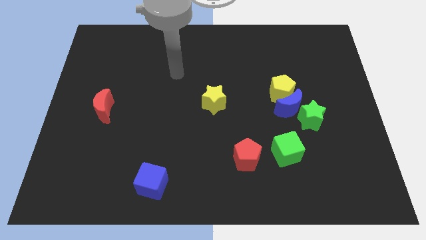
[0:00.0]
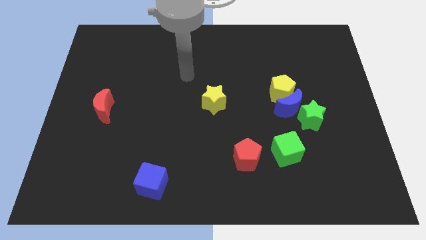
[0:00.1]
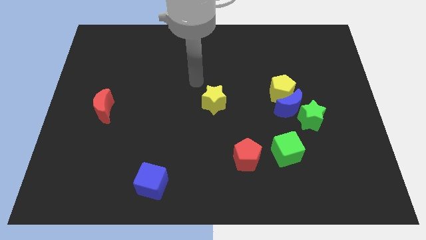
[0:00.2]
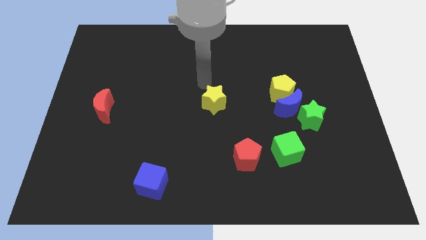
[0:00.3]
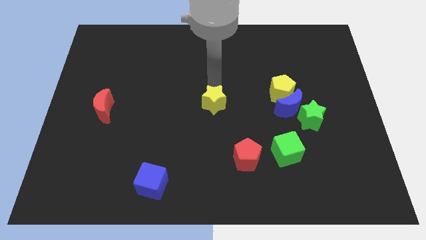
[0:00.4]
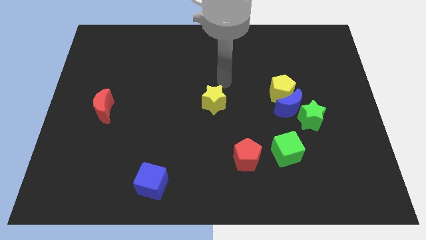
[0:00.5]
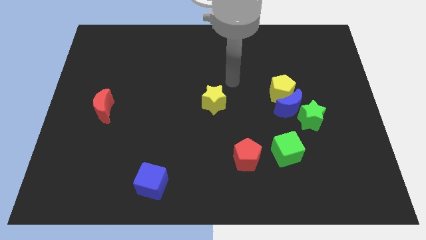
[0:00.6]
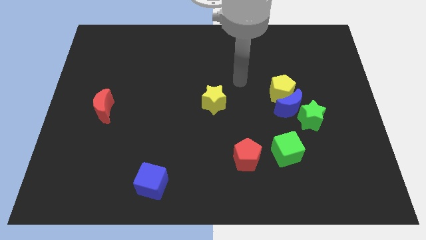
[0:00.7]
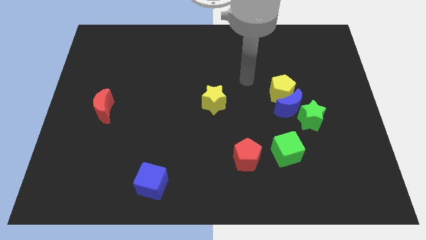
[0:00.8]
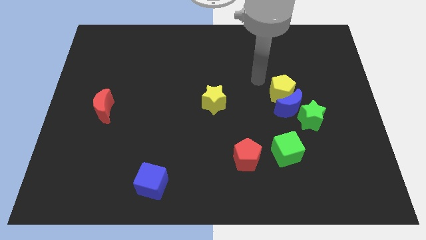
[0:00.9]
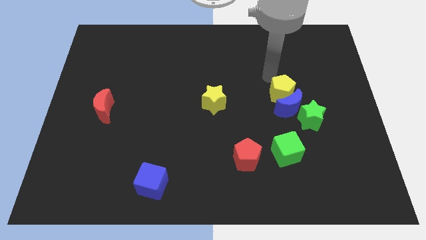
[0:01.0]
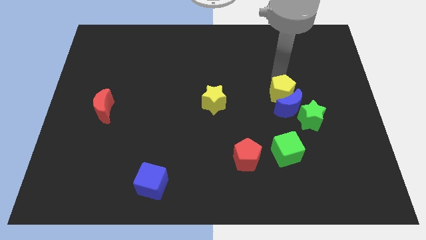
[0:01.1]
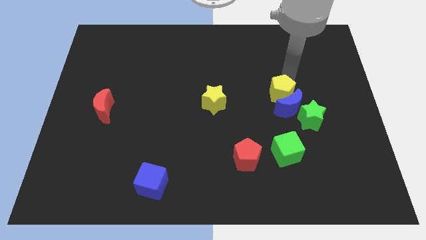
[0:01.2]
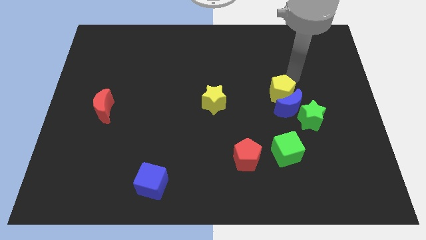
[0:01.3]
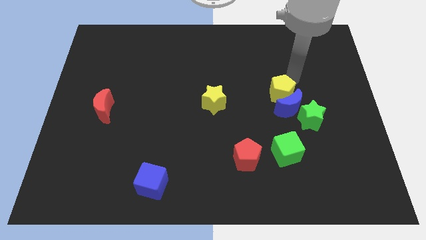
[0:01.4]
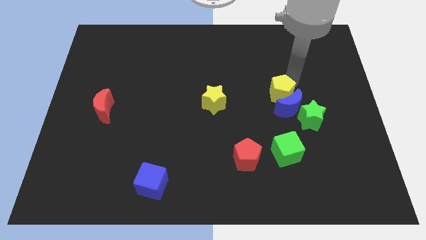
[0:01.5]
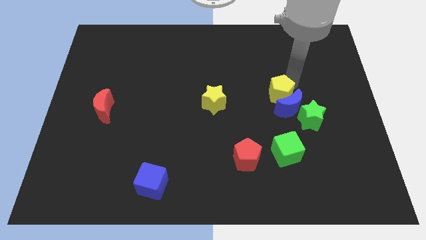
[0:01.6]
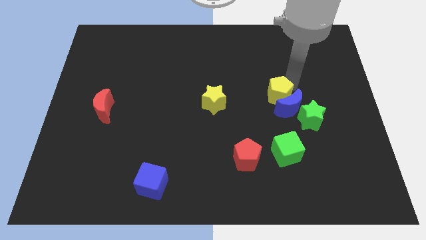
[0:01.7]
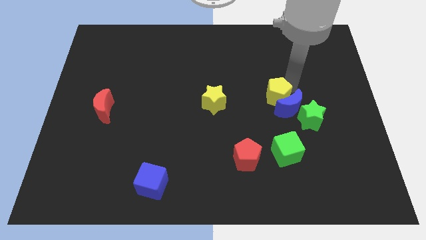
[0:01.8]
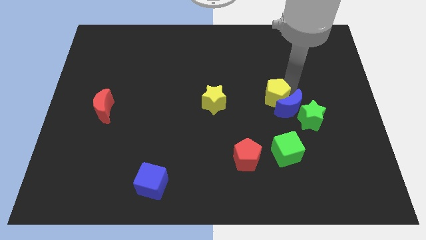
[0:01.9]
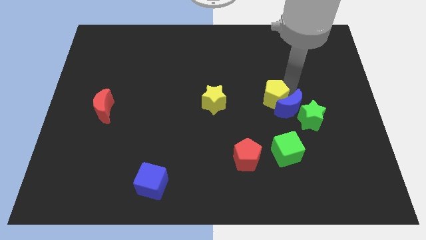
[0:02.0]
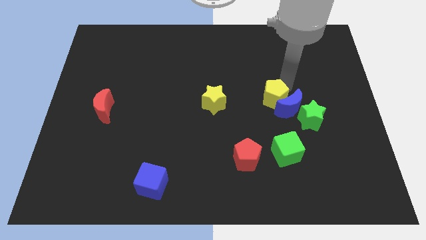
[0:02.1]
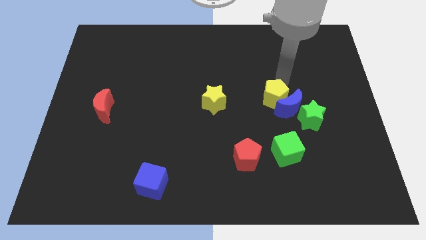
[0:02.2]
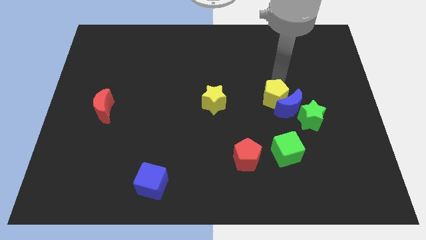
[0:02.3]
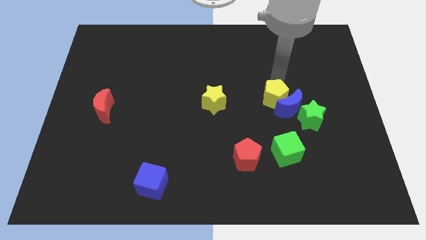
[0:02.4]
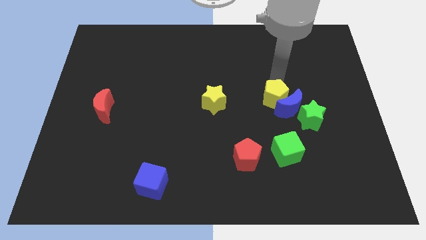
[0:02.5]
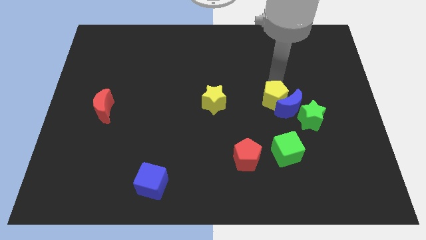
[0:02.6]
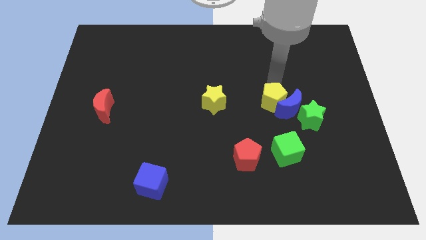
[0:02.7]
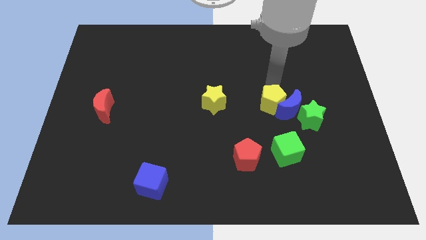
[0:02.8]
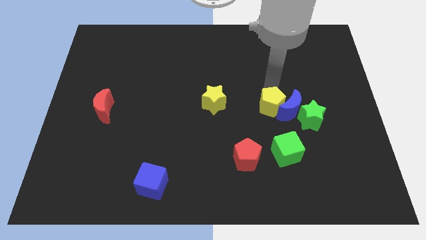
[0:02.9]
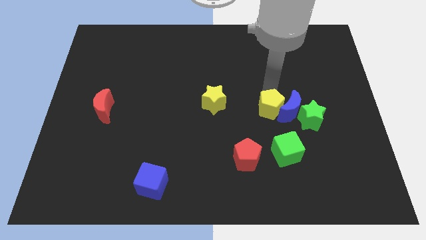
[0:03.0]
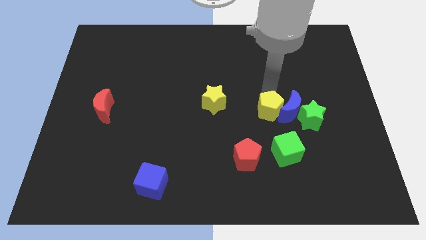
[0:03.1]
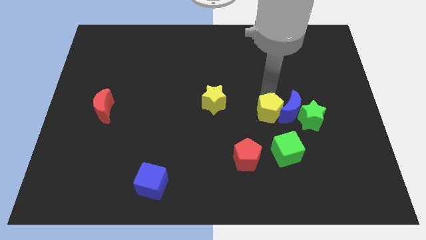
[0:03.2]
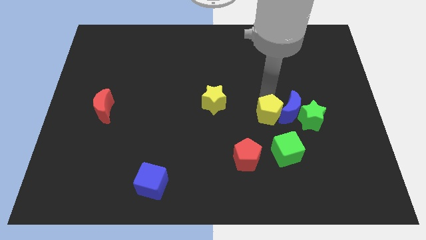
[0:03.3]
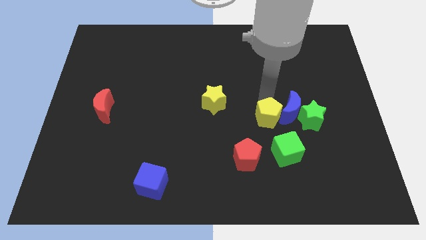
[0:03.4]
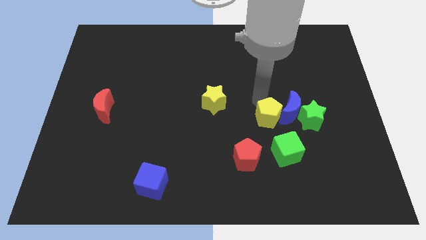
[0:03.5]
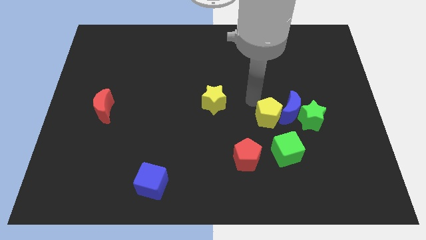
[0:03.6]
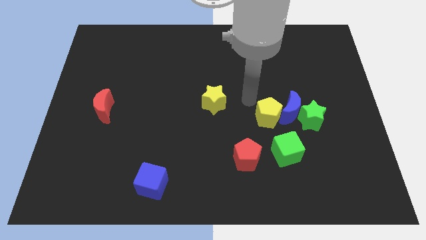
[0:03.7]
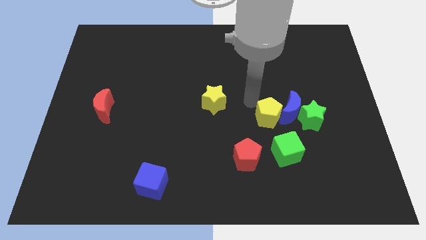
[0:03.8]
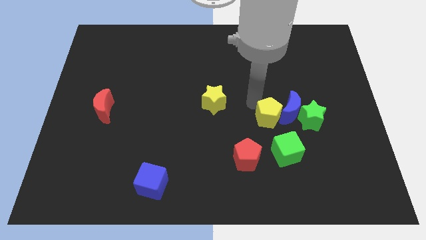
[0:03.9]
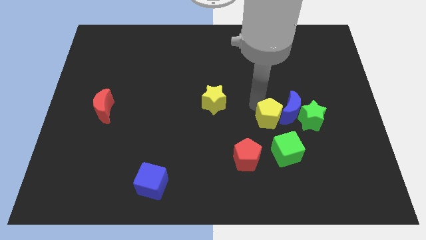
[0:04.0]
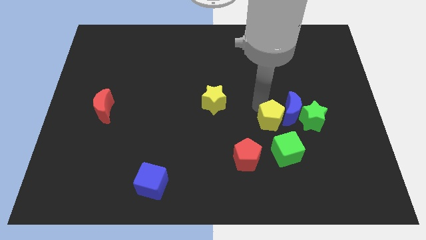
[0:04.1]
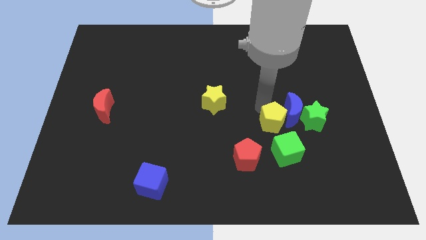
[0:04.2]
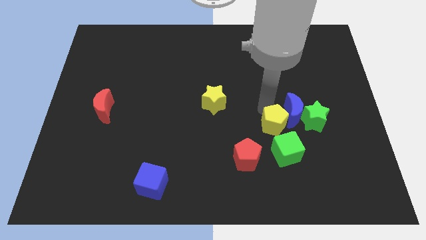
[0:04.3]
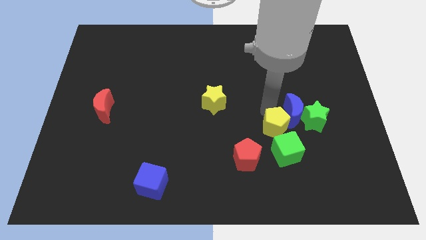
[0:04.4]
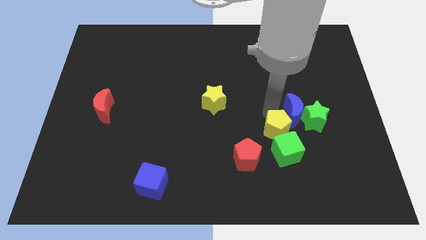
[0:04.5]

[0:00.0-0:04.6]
put the yellow pentagon to the bottom left of the green star

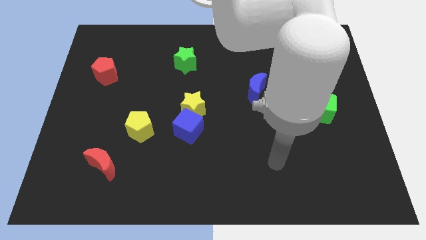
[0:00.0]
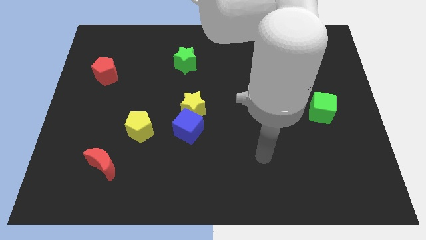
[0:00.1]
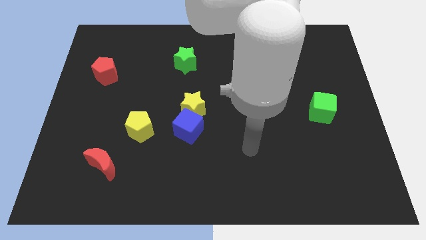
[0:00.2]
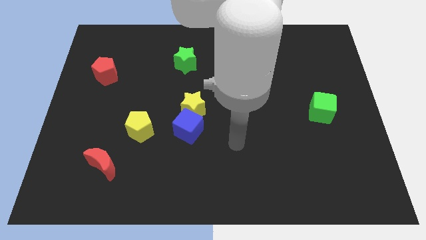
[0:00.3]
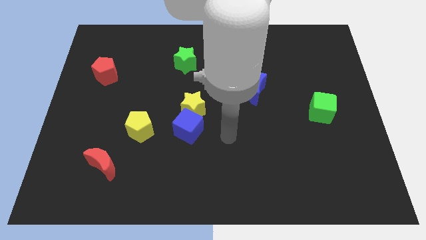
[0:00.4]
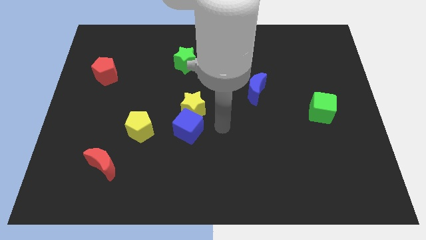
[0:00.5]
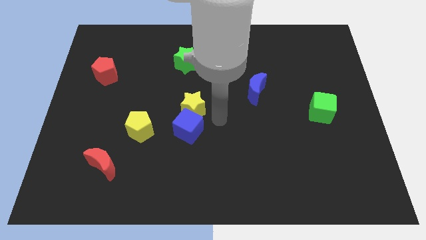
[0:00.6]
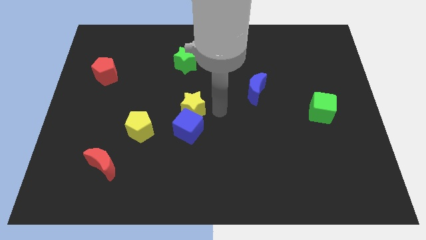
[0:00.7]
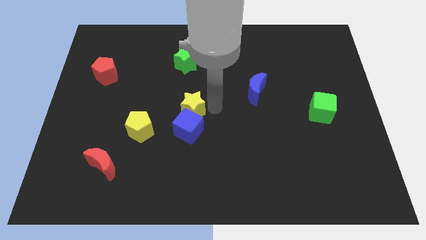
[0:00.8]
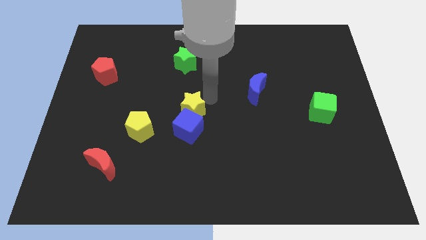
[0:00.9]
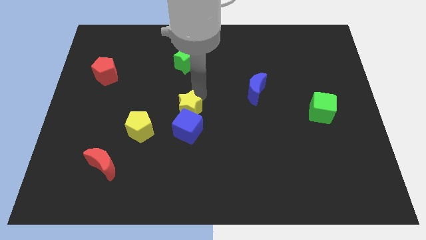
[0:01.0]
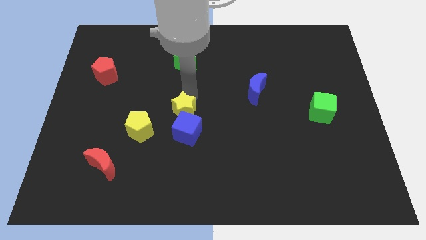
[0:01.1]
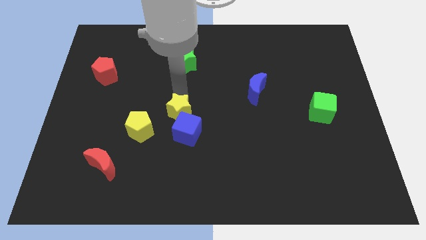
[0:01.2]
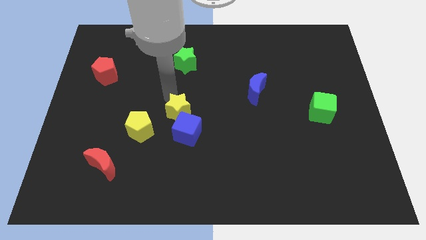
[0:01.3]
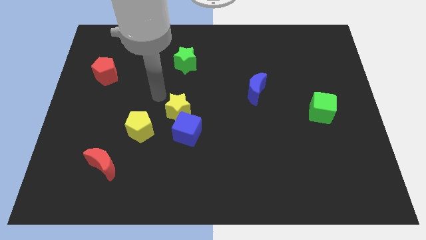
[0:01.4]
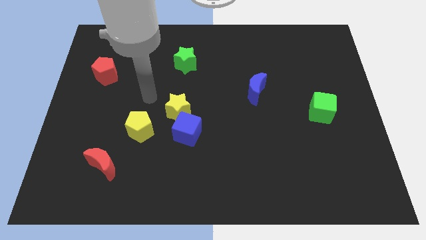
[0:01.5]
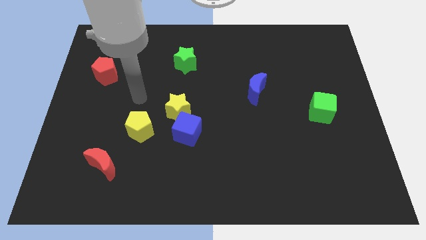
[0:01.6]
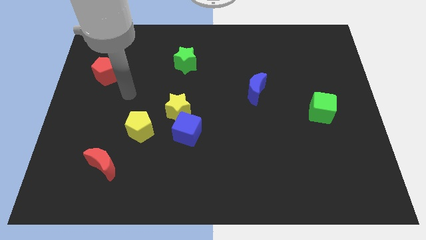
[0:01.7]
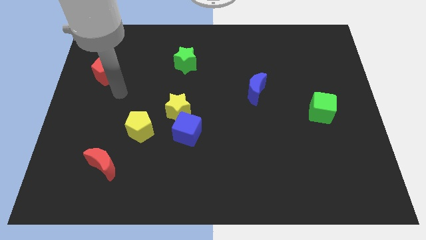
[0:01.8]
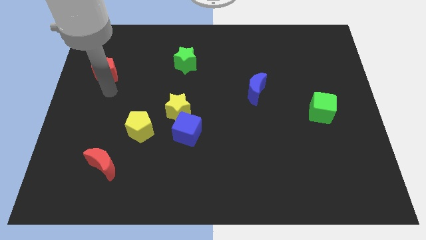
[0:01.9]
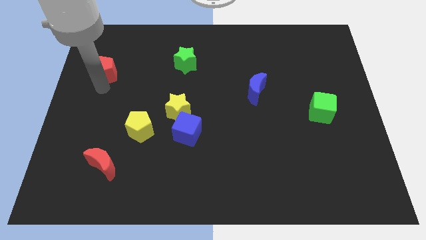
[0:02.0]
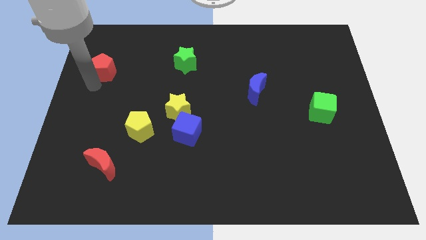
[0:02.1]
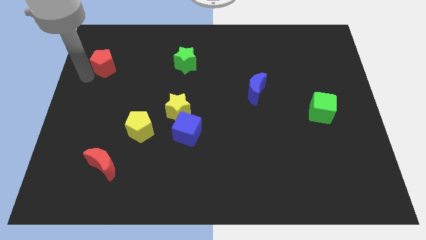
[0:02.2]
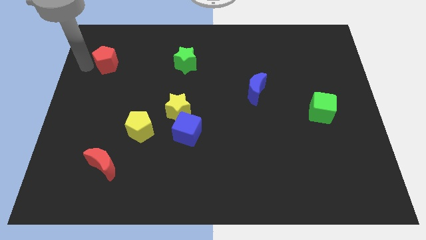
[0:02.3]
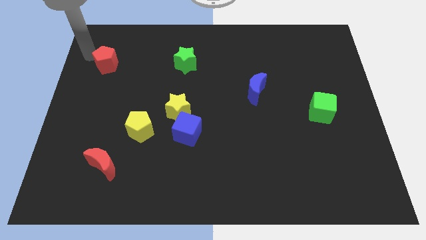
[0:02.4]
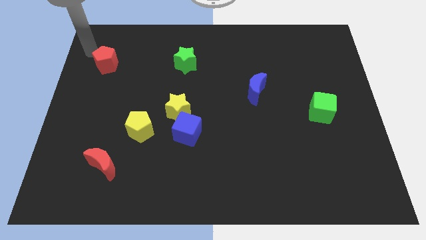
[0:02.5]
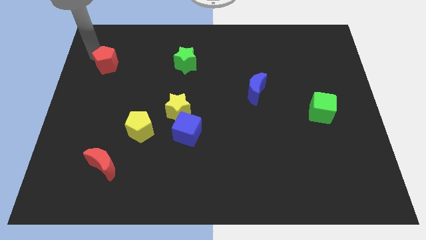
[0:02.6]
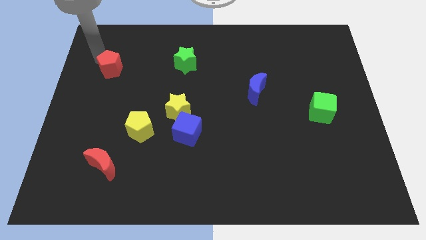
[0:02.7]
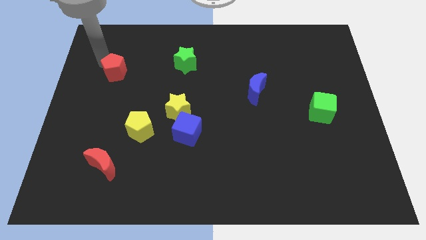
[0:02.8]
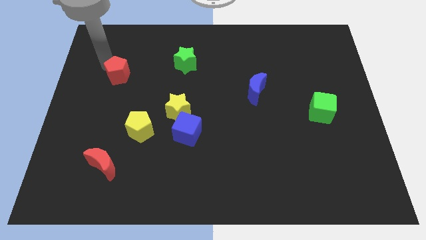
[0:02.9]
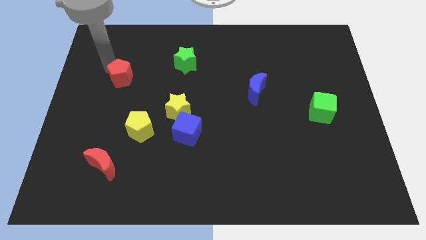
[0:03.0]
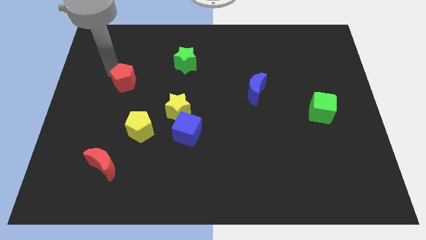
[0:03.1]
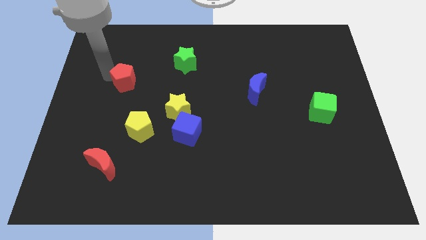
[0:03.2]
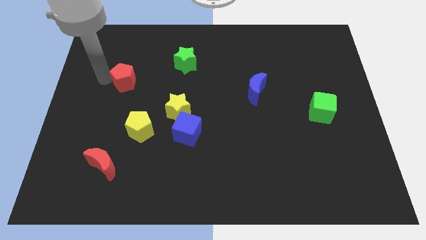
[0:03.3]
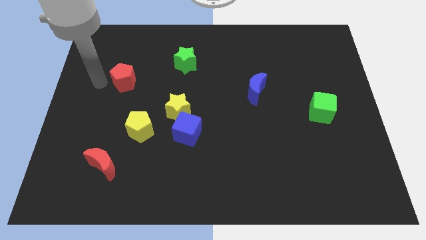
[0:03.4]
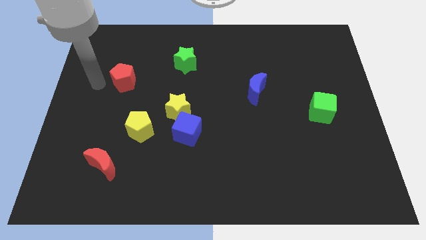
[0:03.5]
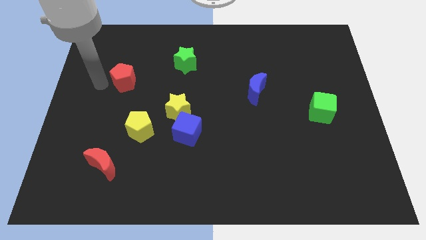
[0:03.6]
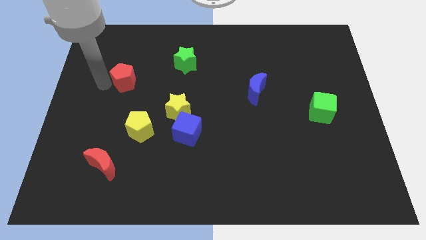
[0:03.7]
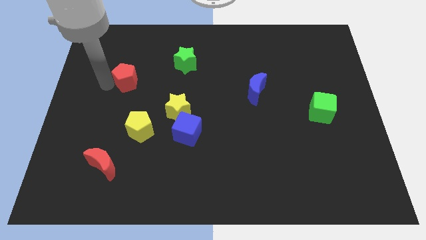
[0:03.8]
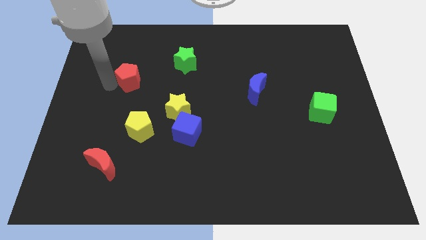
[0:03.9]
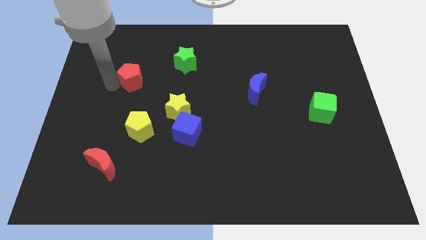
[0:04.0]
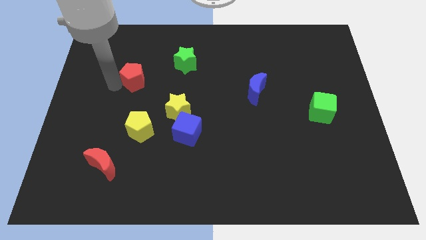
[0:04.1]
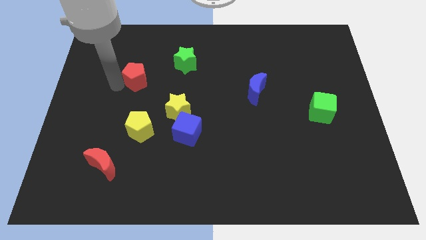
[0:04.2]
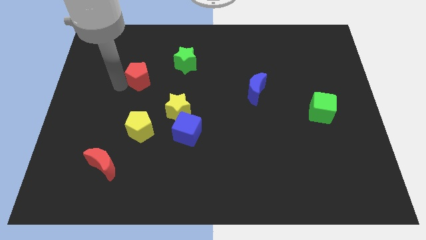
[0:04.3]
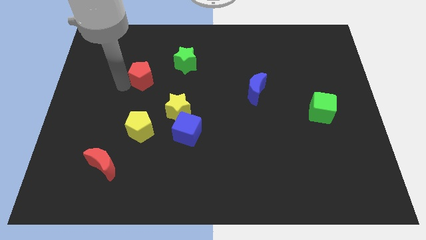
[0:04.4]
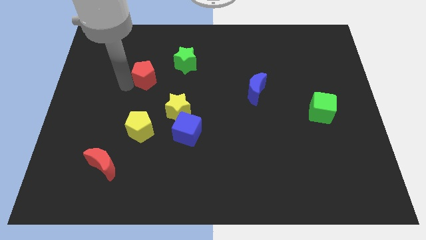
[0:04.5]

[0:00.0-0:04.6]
move the red pentagon to the bottom left of the green star
